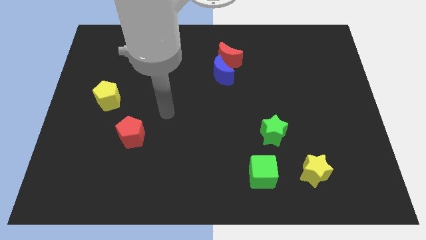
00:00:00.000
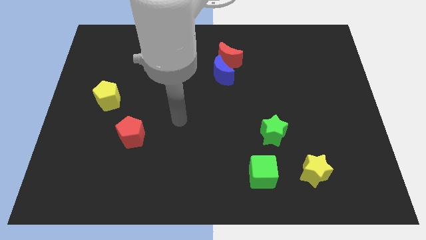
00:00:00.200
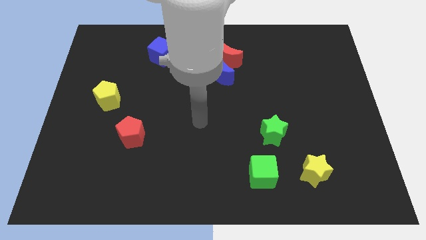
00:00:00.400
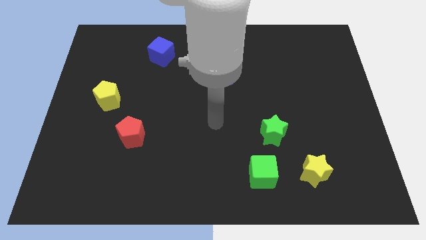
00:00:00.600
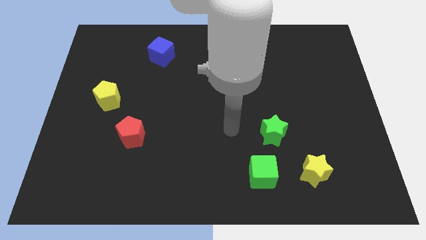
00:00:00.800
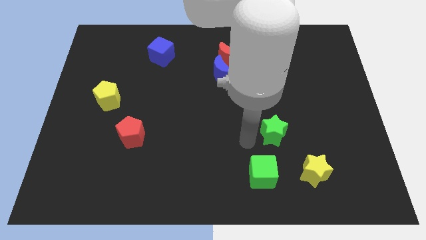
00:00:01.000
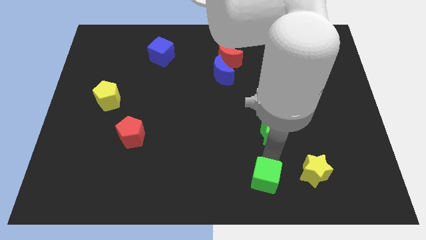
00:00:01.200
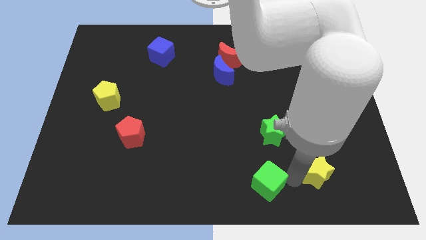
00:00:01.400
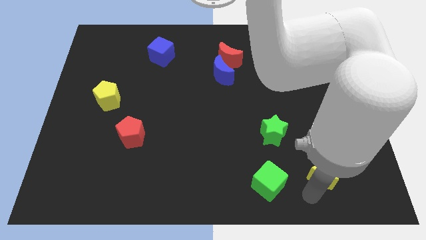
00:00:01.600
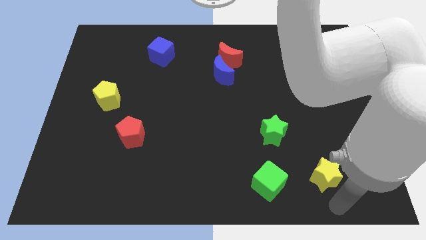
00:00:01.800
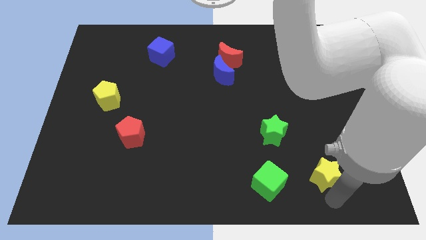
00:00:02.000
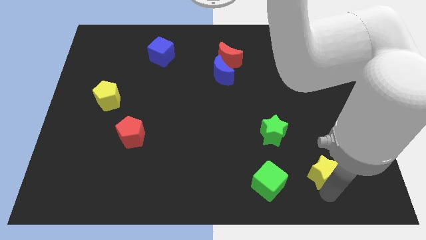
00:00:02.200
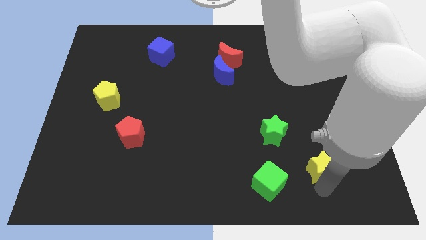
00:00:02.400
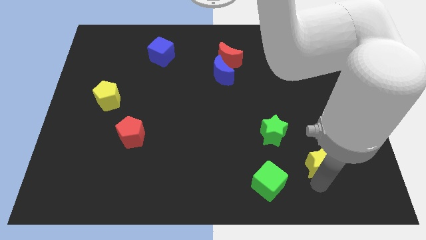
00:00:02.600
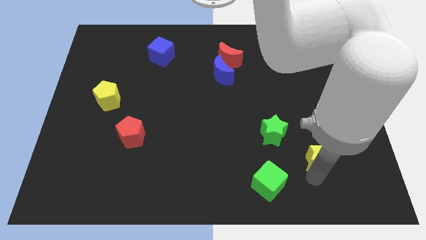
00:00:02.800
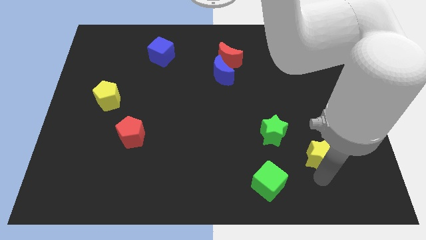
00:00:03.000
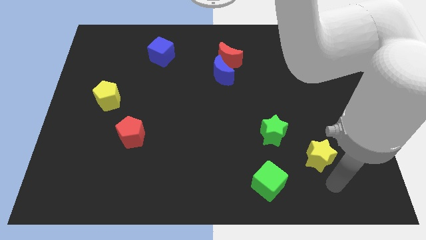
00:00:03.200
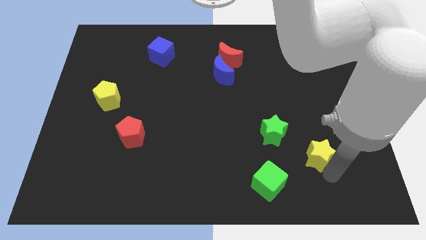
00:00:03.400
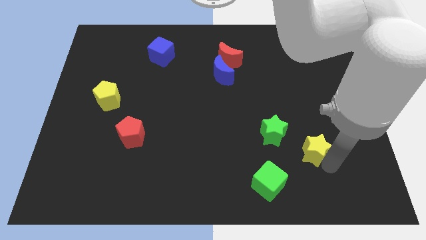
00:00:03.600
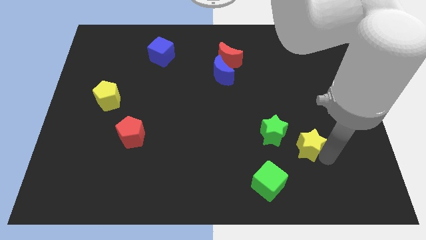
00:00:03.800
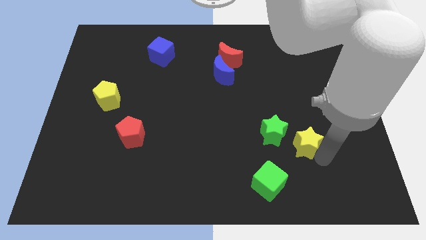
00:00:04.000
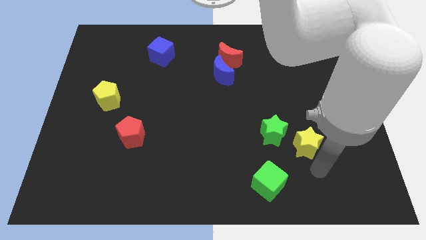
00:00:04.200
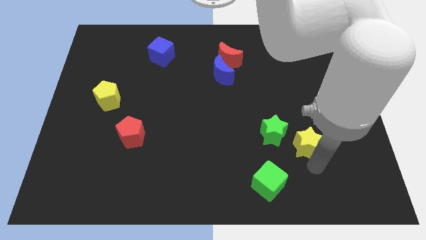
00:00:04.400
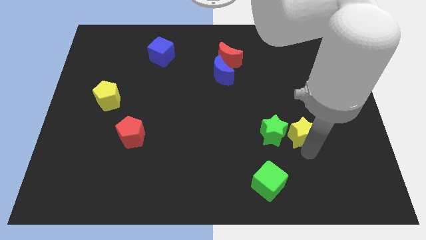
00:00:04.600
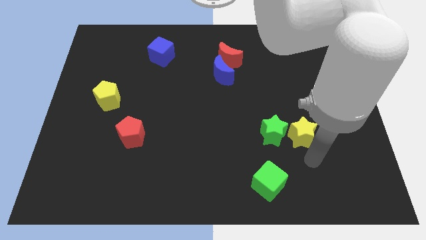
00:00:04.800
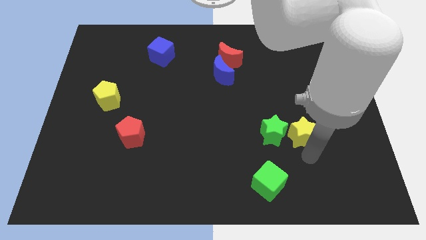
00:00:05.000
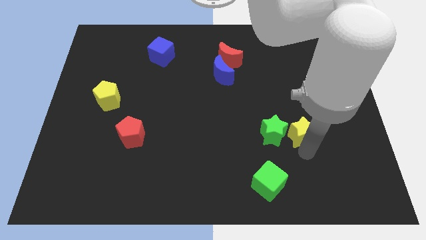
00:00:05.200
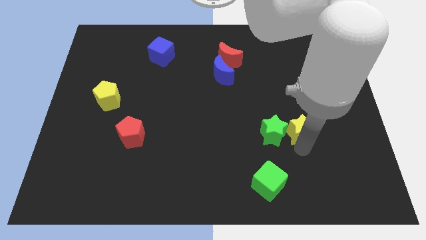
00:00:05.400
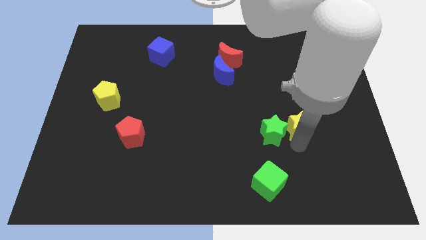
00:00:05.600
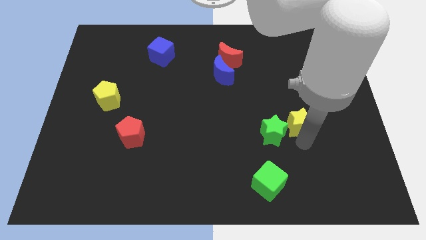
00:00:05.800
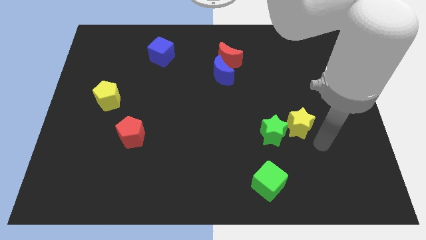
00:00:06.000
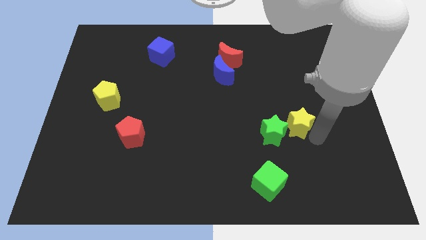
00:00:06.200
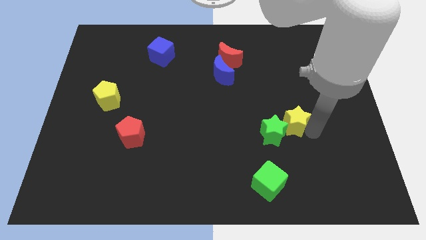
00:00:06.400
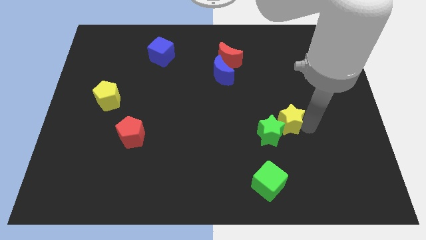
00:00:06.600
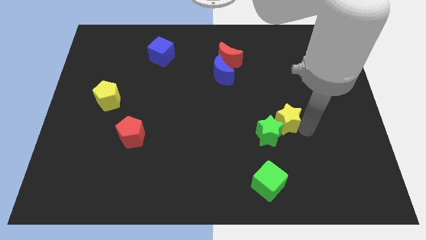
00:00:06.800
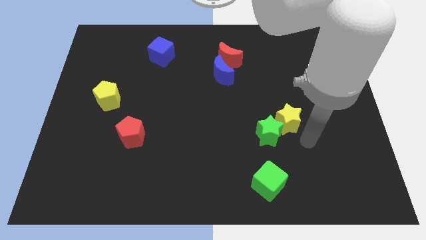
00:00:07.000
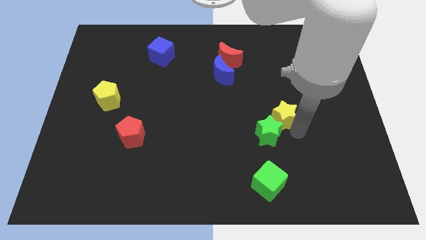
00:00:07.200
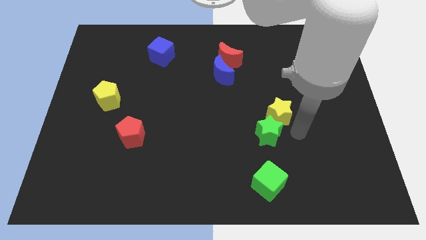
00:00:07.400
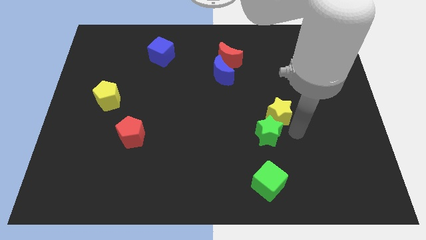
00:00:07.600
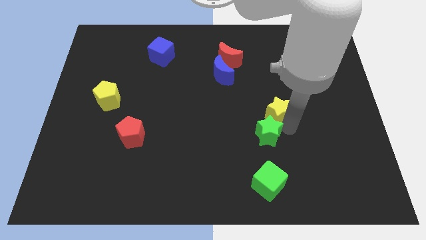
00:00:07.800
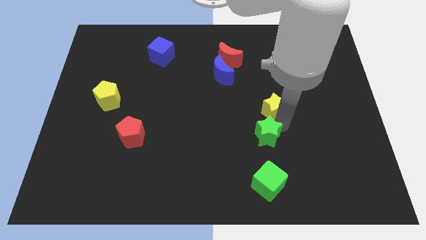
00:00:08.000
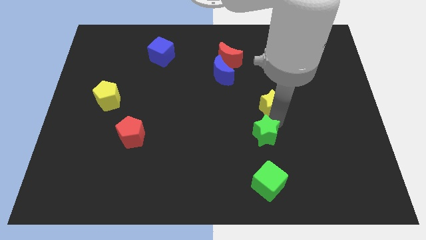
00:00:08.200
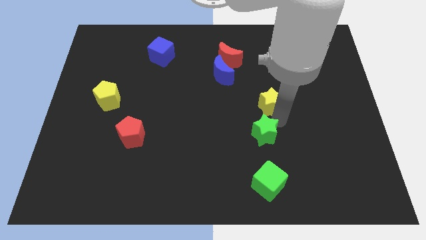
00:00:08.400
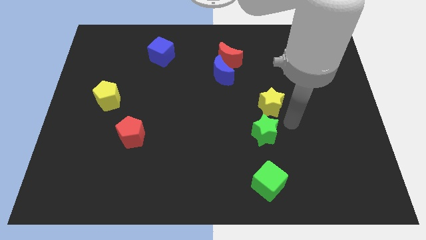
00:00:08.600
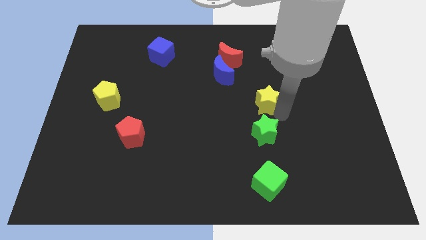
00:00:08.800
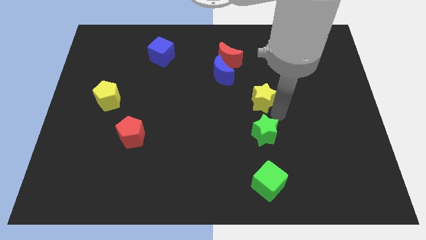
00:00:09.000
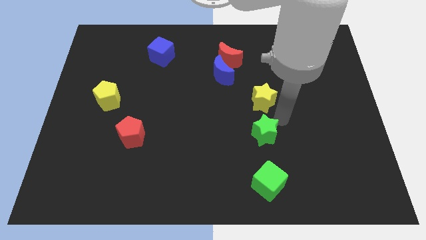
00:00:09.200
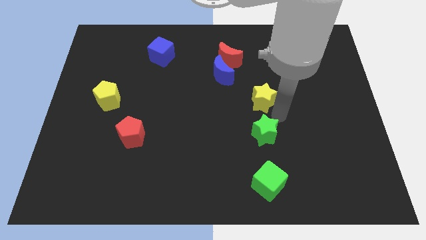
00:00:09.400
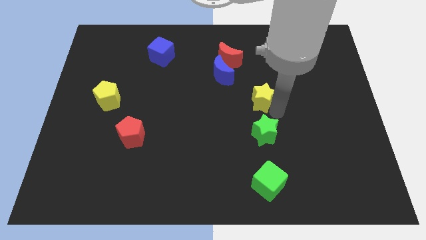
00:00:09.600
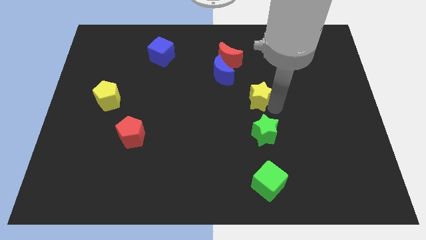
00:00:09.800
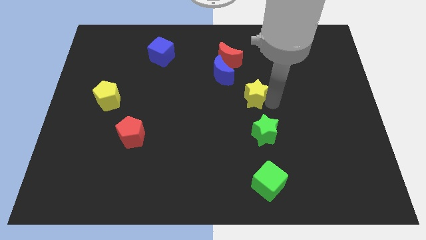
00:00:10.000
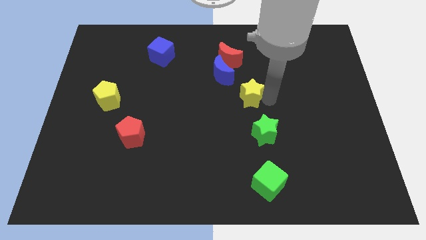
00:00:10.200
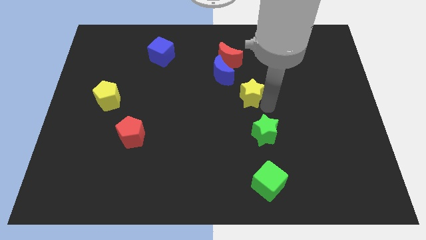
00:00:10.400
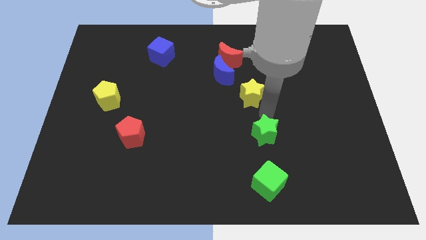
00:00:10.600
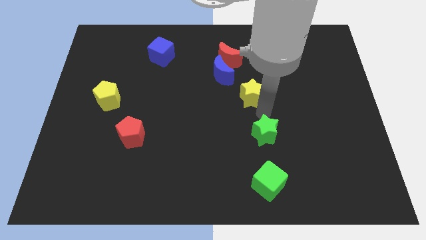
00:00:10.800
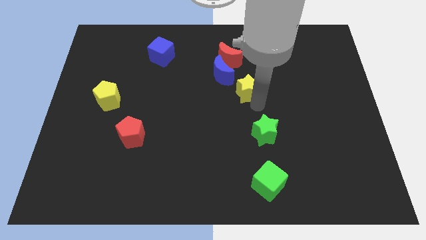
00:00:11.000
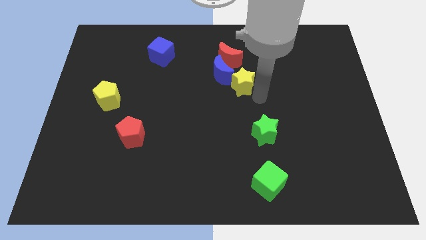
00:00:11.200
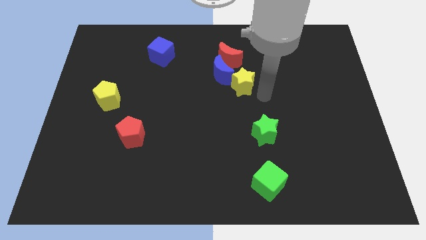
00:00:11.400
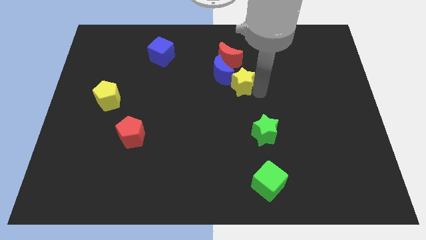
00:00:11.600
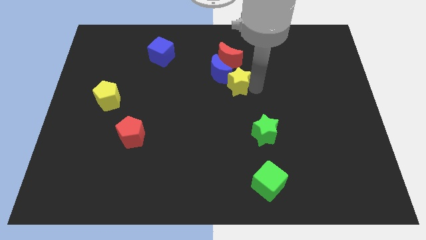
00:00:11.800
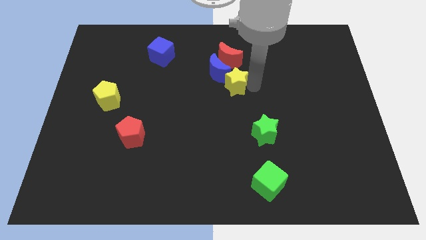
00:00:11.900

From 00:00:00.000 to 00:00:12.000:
push the yellow star towards the blue moon

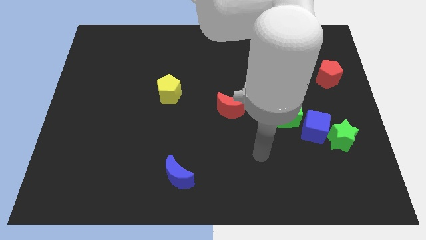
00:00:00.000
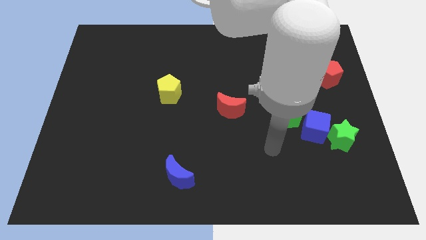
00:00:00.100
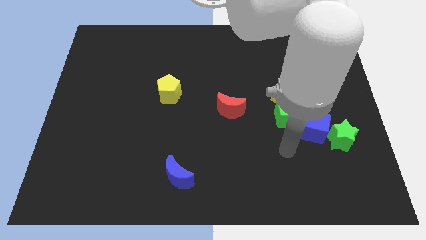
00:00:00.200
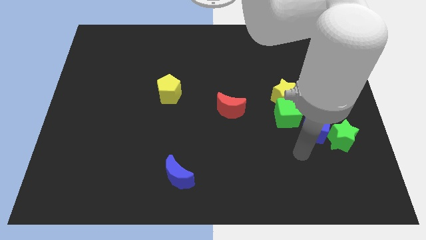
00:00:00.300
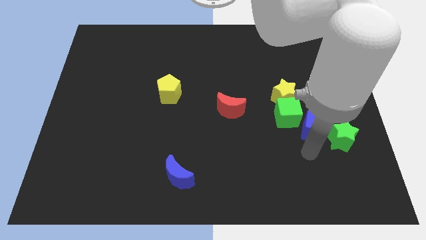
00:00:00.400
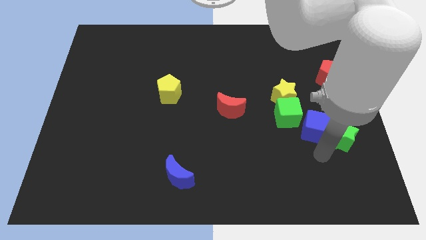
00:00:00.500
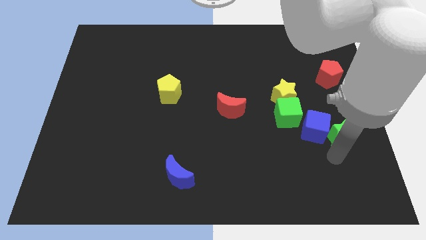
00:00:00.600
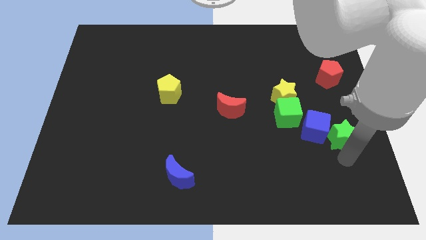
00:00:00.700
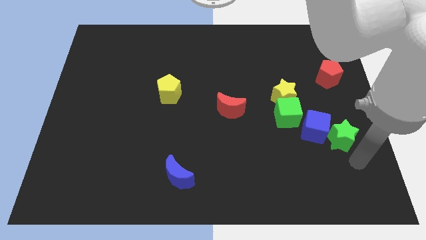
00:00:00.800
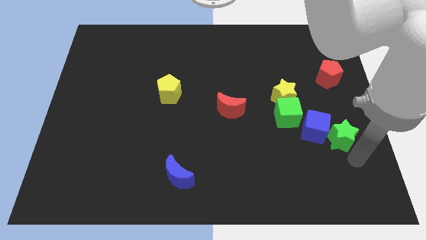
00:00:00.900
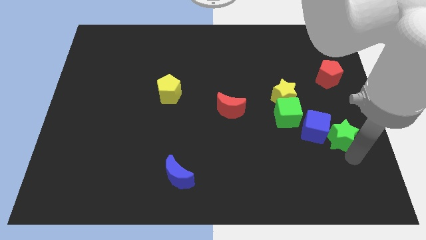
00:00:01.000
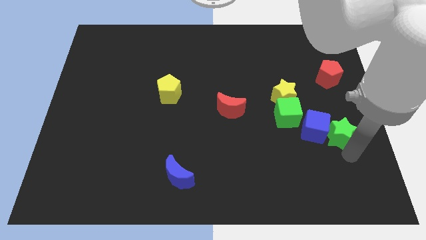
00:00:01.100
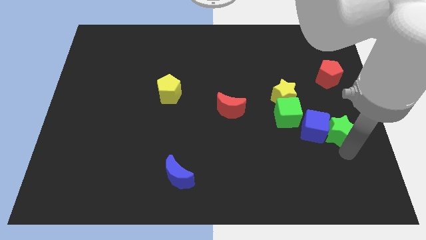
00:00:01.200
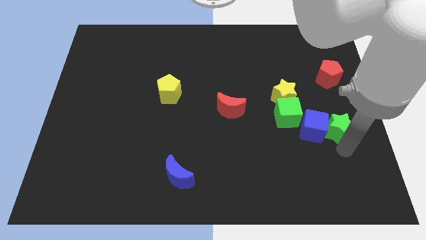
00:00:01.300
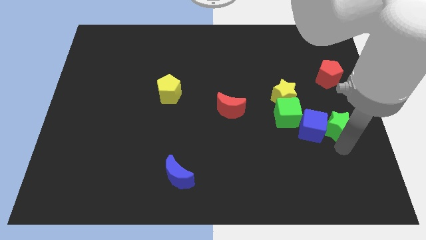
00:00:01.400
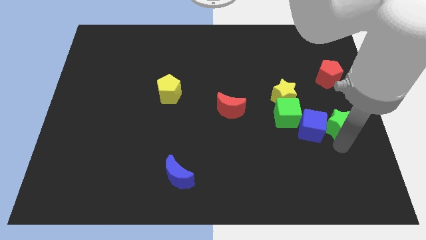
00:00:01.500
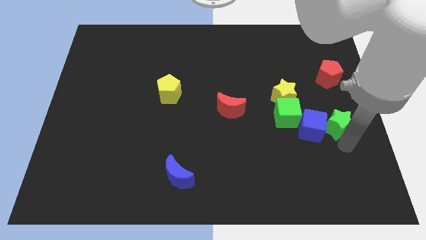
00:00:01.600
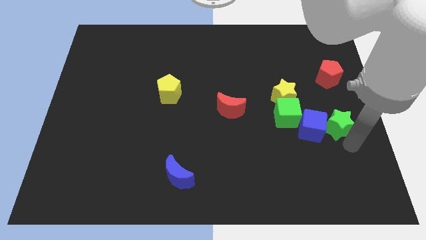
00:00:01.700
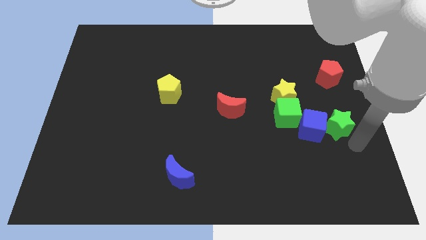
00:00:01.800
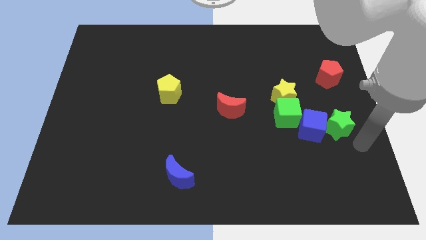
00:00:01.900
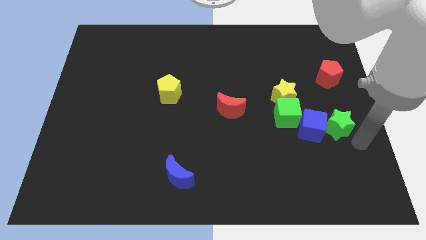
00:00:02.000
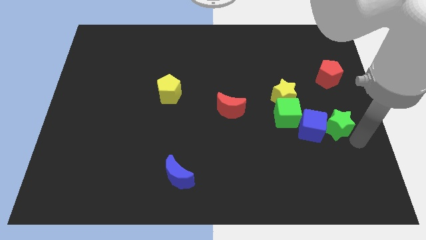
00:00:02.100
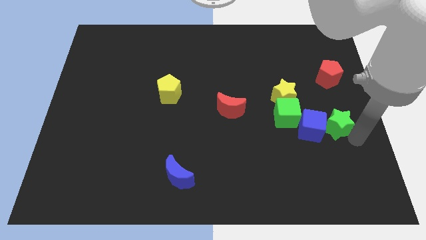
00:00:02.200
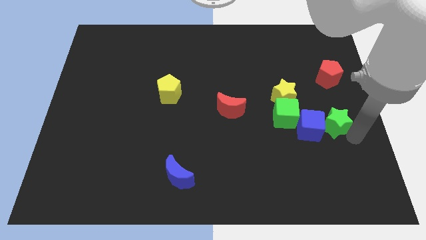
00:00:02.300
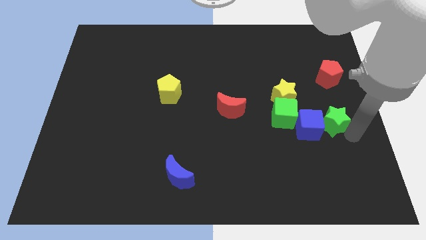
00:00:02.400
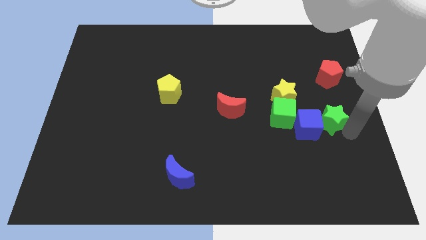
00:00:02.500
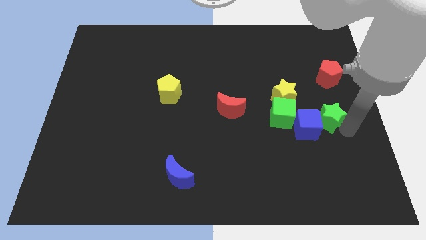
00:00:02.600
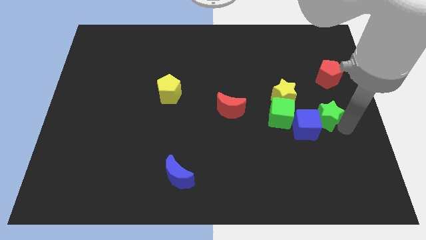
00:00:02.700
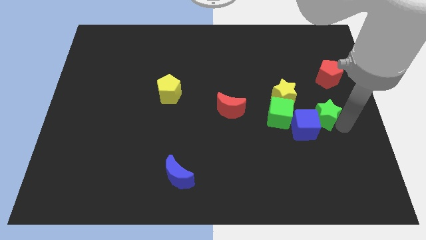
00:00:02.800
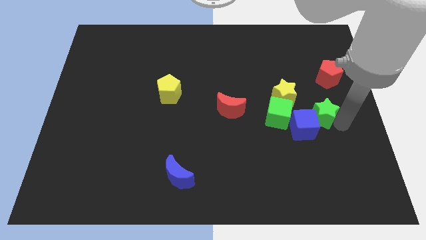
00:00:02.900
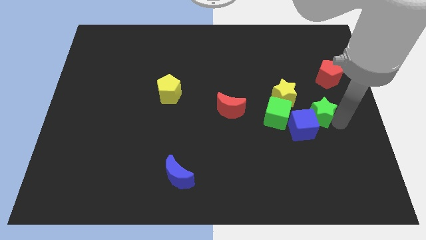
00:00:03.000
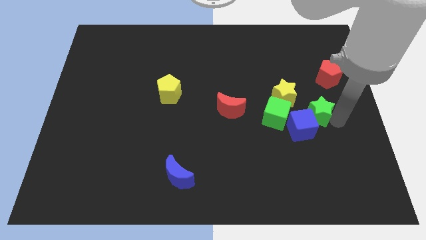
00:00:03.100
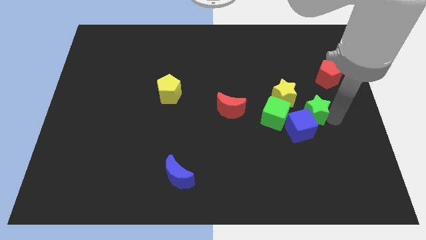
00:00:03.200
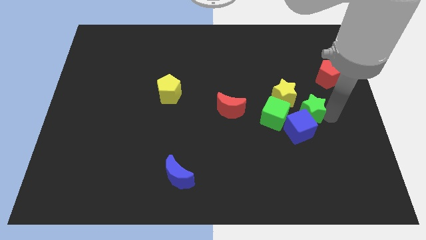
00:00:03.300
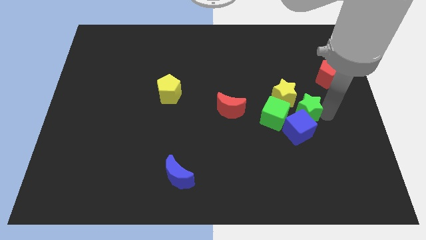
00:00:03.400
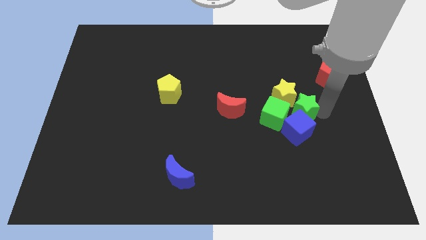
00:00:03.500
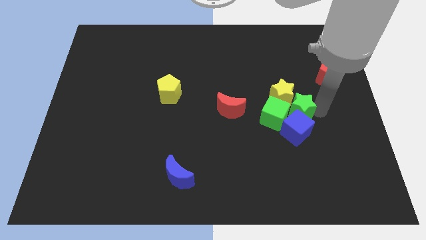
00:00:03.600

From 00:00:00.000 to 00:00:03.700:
put the green star close to the green cube
